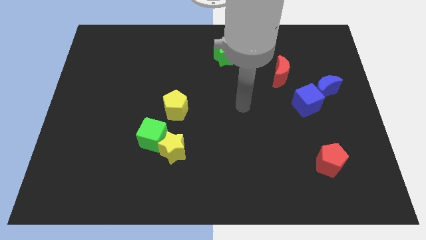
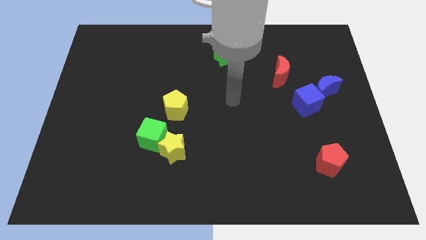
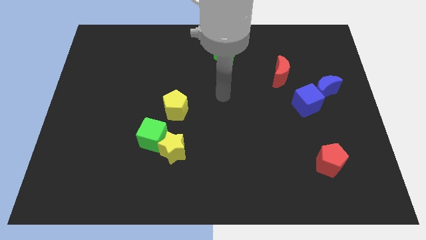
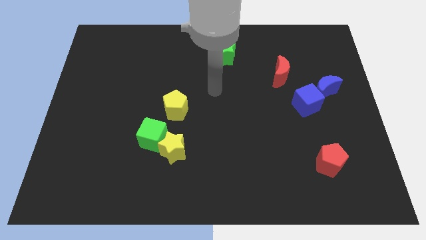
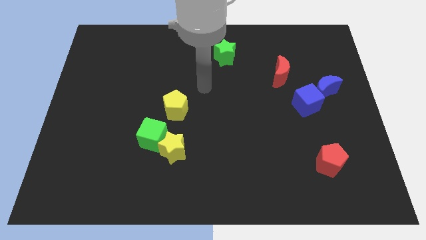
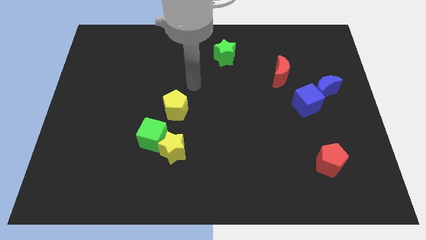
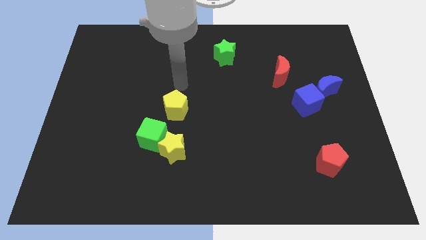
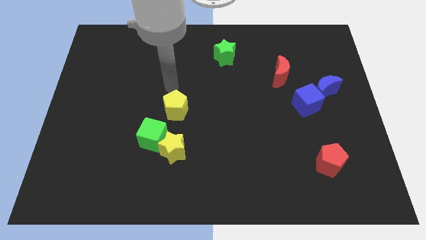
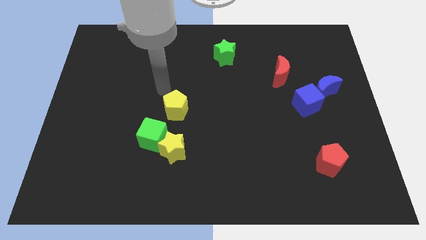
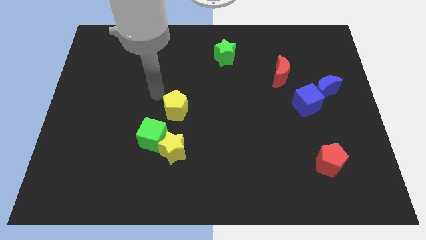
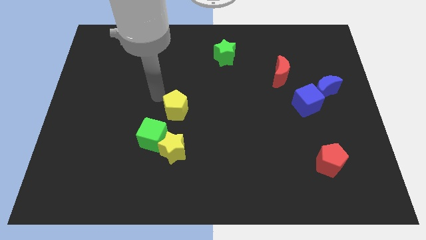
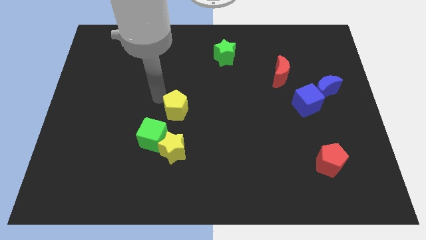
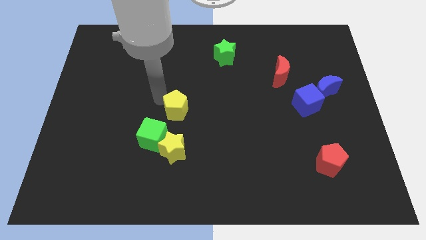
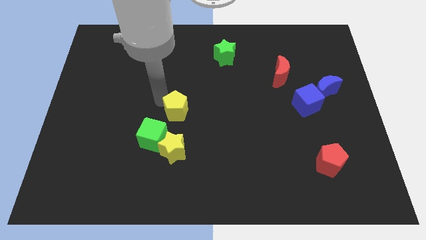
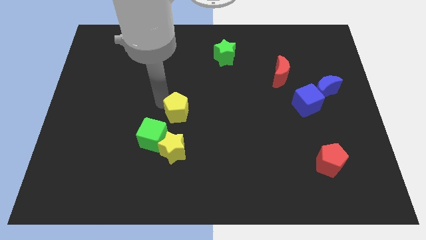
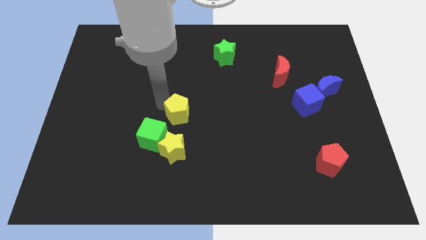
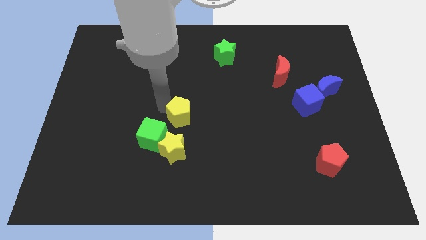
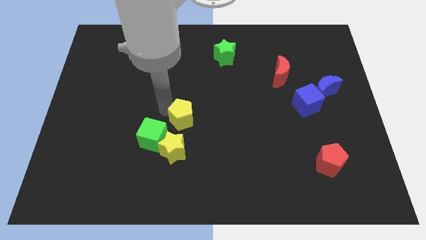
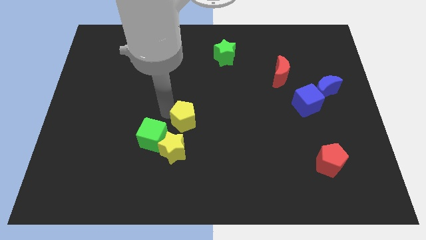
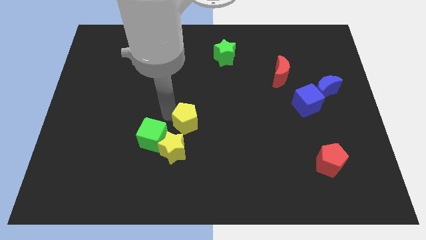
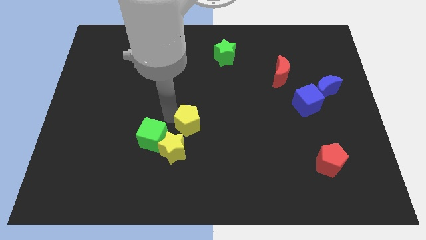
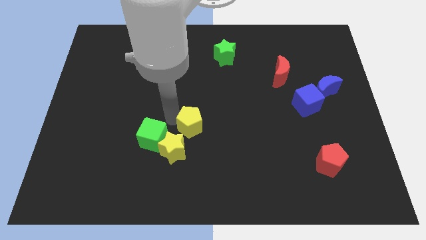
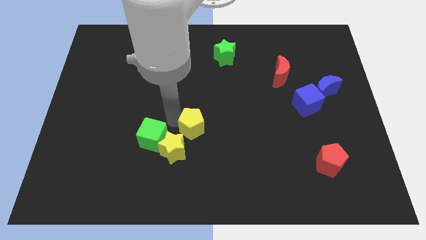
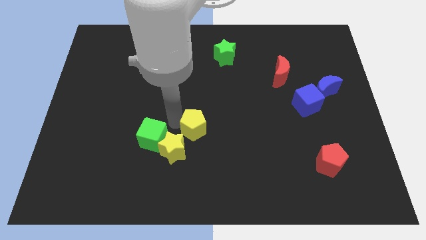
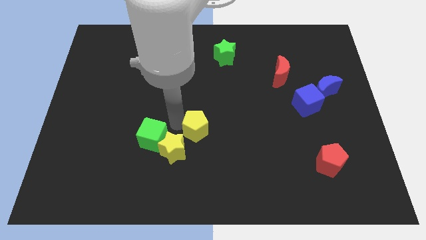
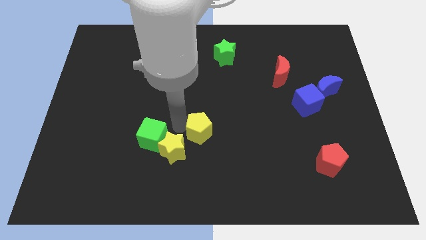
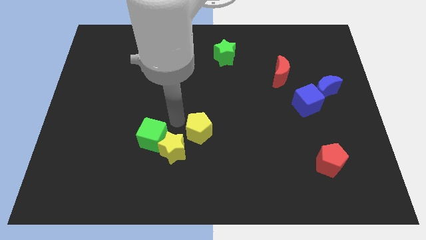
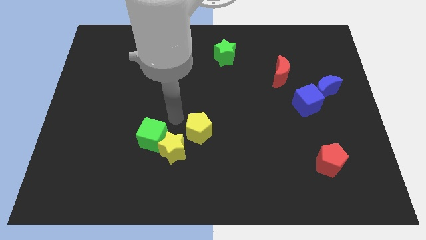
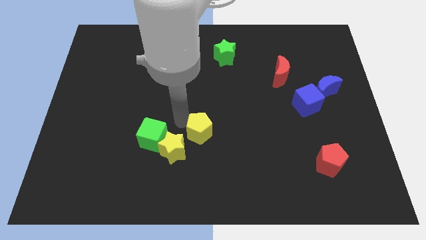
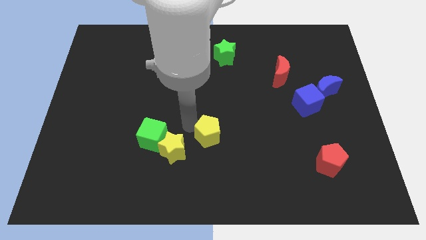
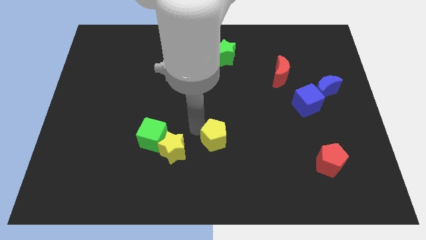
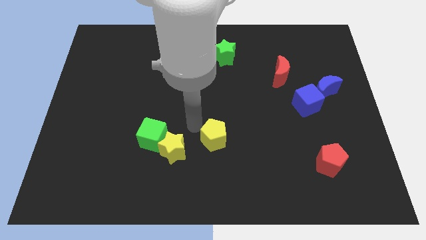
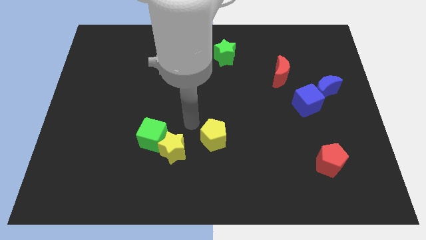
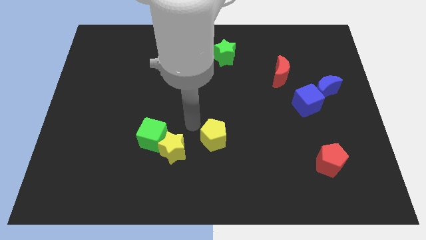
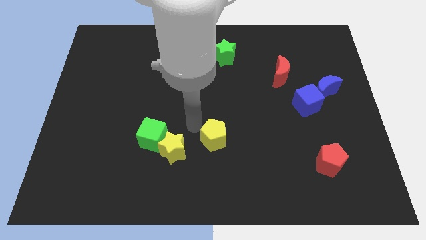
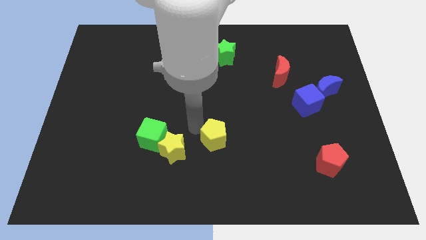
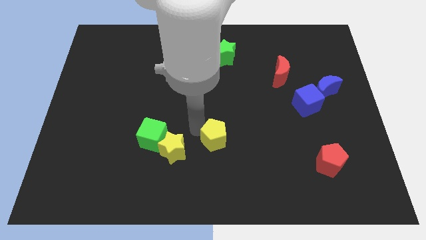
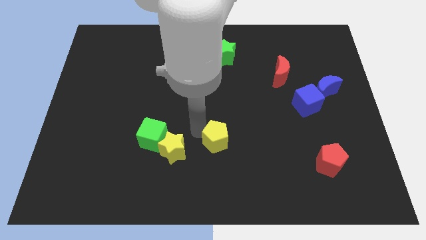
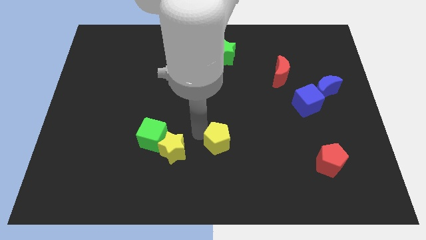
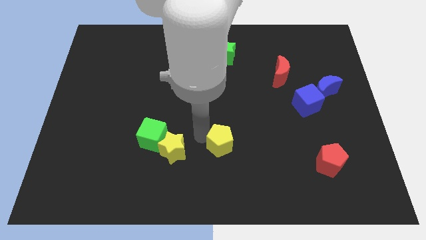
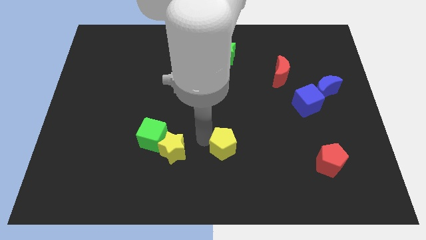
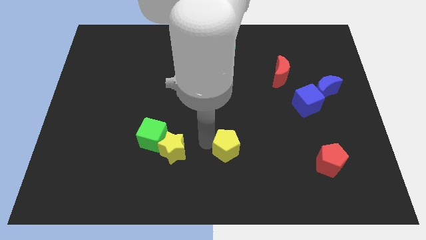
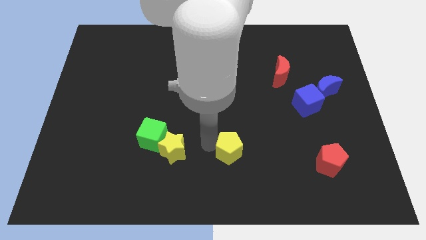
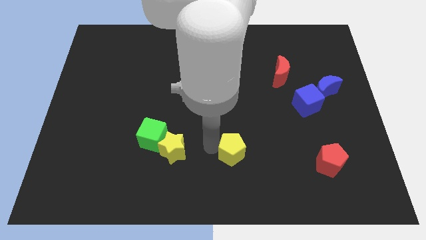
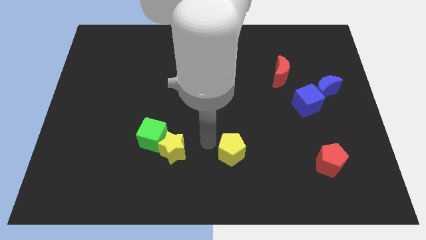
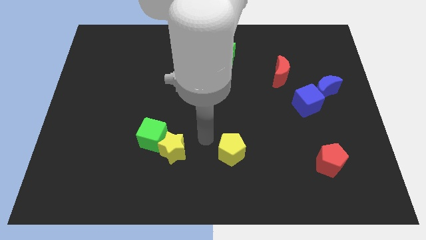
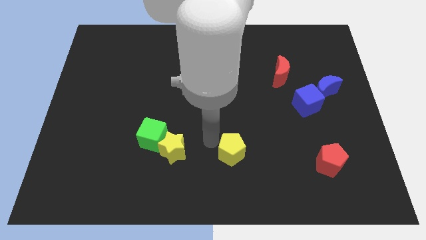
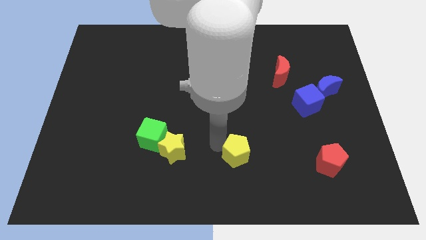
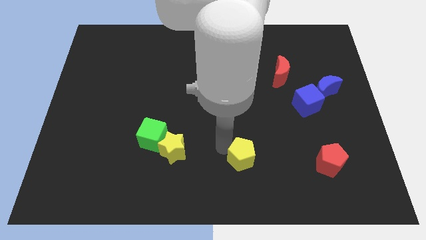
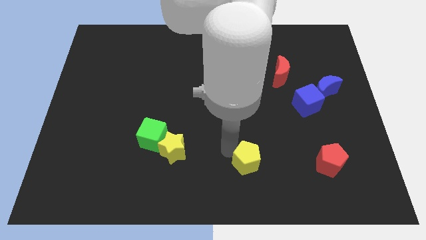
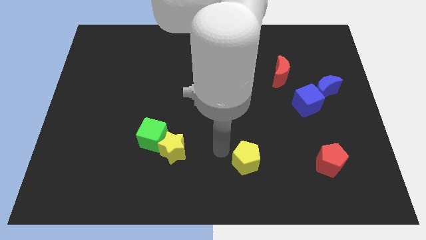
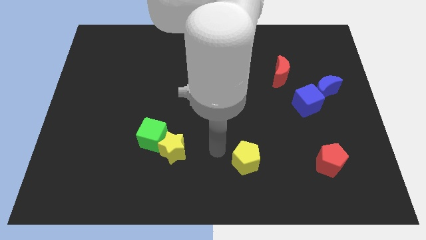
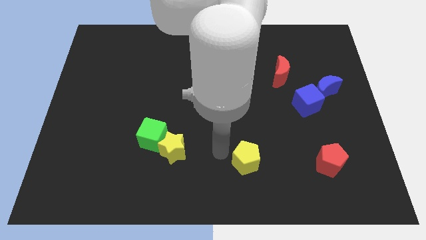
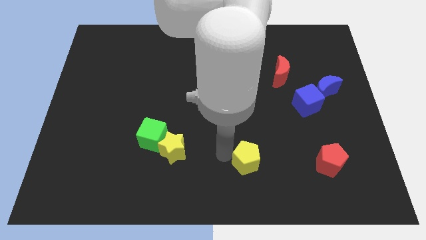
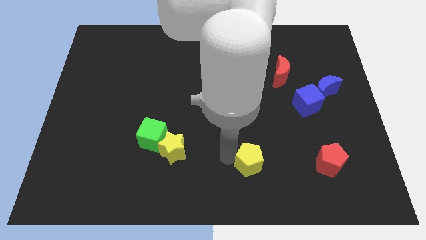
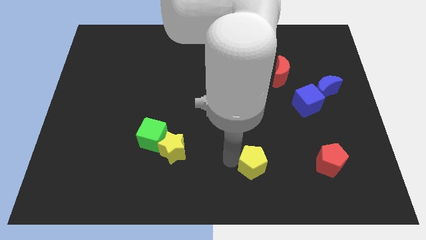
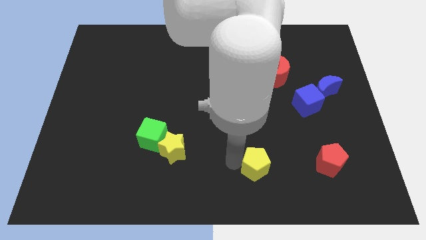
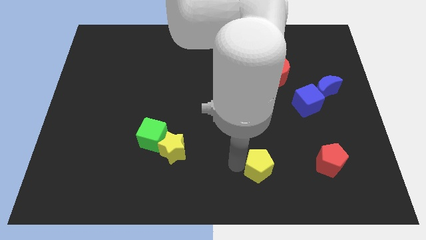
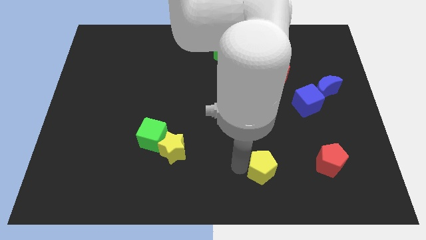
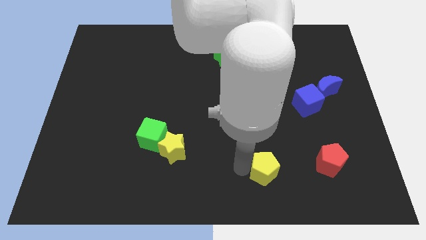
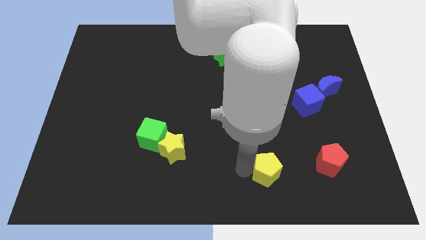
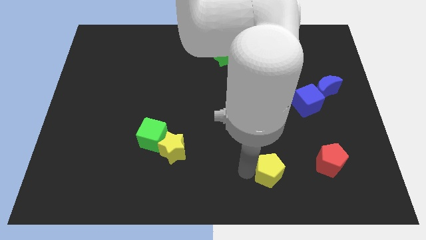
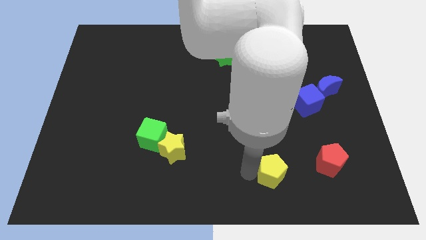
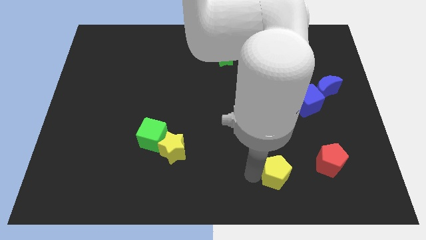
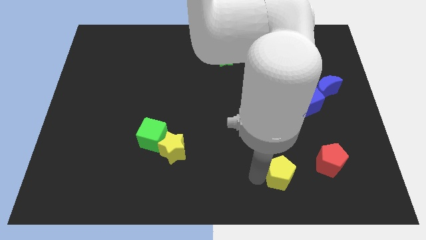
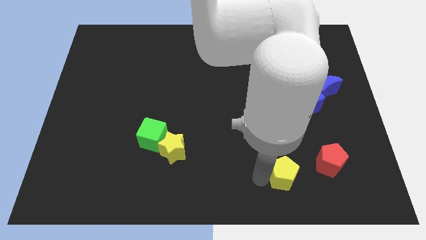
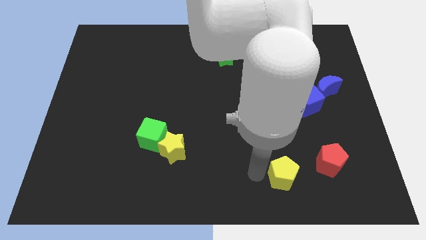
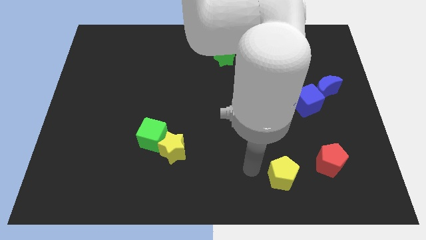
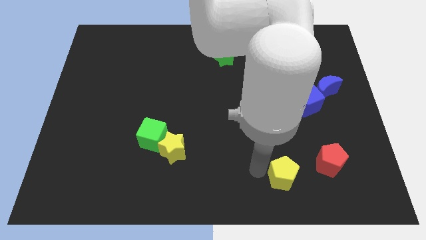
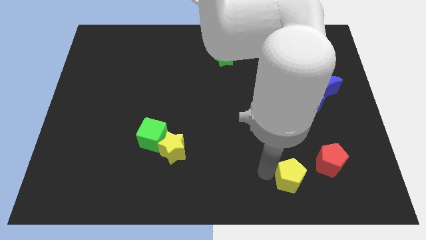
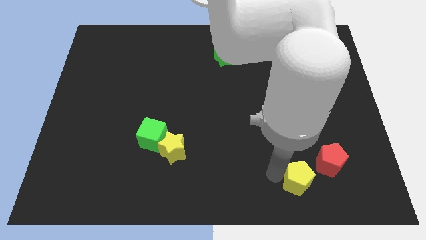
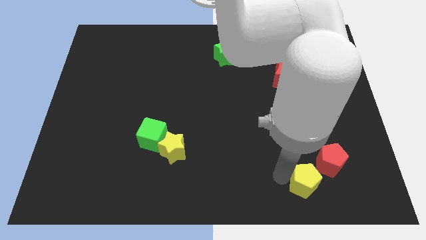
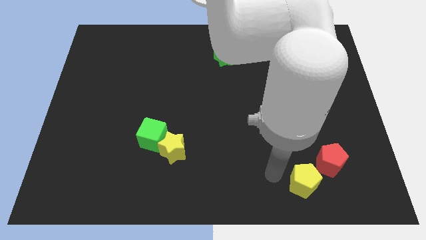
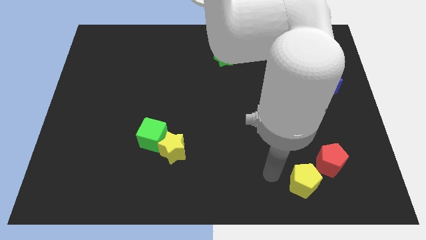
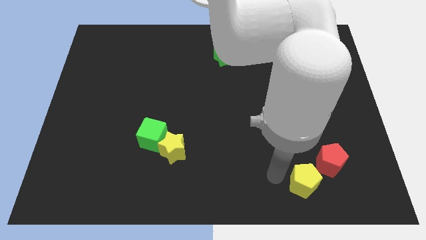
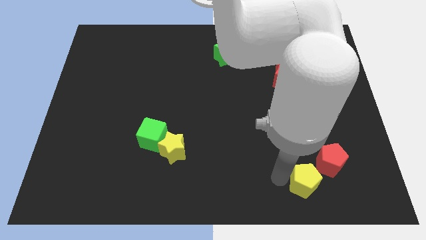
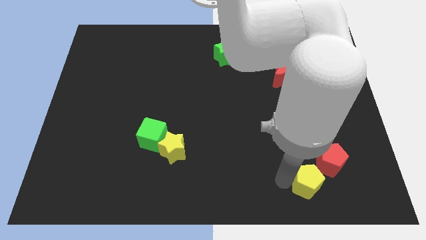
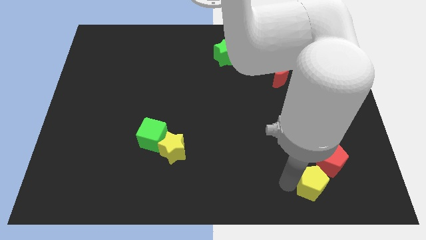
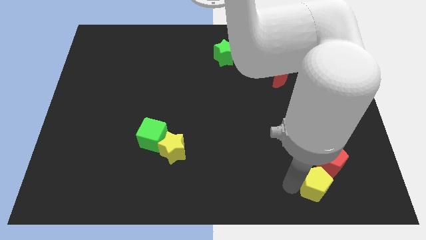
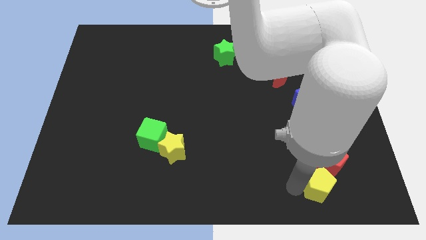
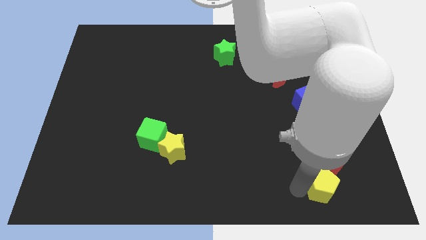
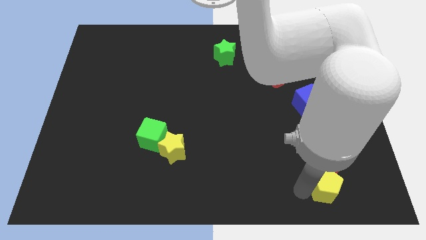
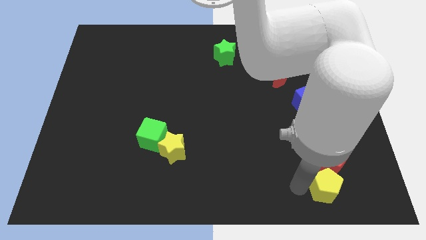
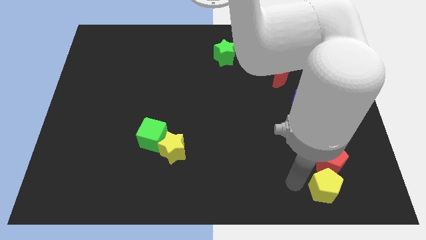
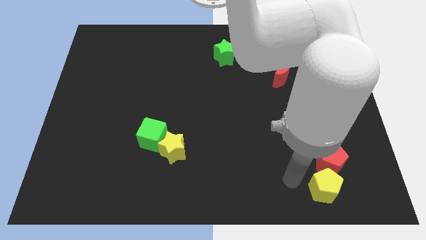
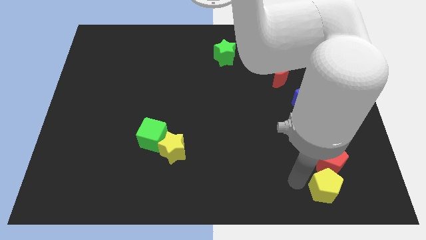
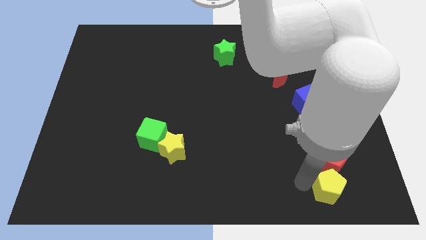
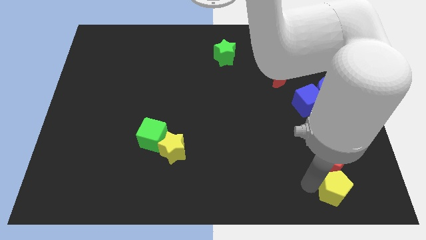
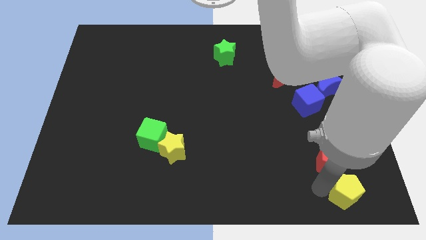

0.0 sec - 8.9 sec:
slide the yellow pentagon to the lower right corner
